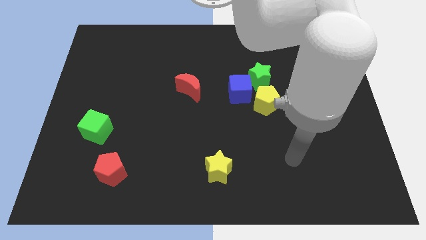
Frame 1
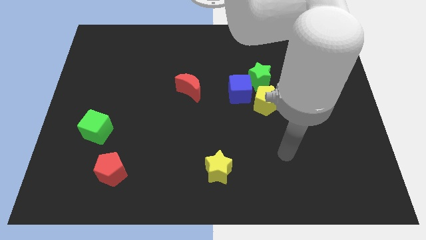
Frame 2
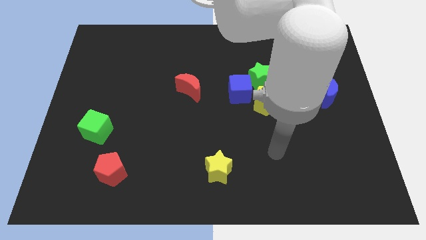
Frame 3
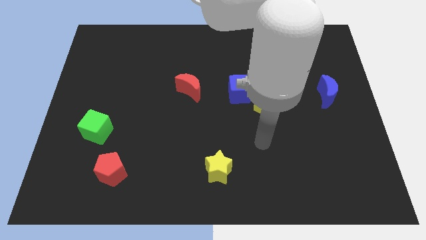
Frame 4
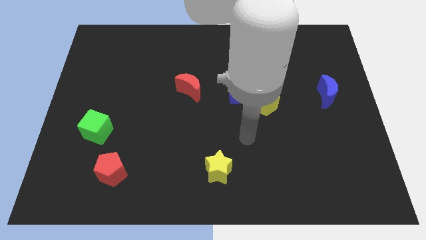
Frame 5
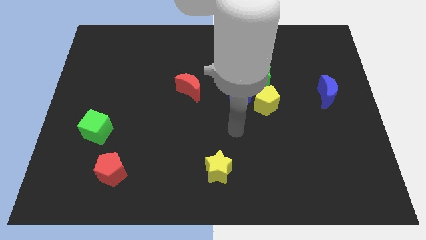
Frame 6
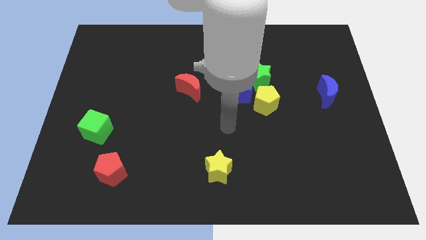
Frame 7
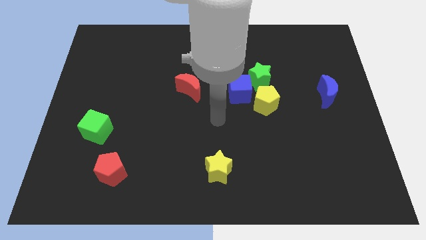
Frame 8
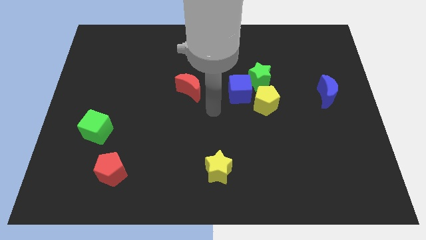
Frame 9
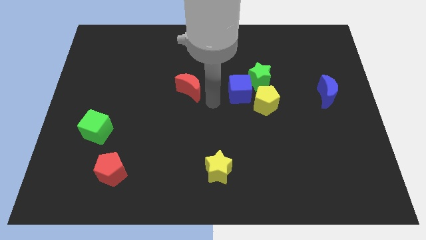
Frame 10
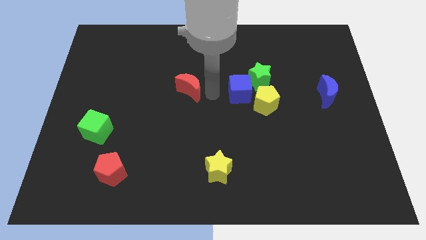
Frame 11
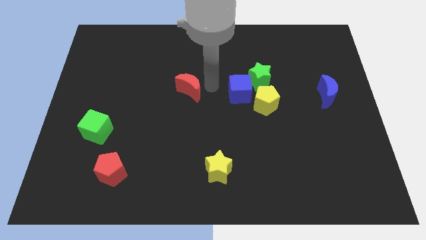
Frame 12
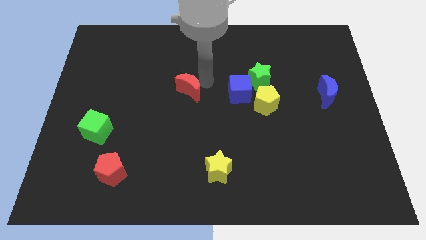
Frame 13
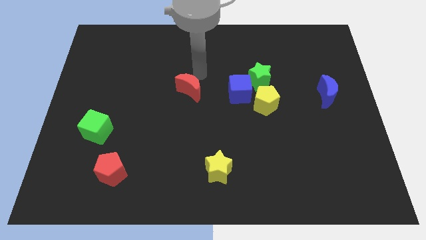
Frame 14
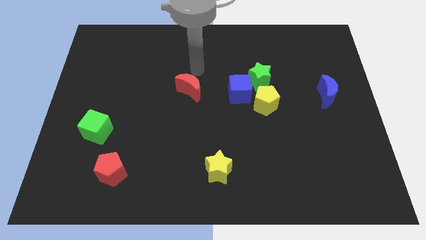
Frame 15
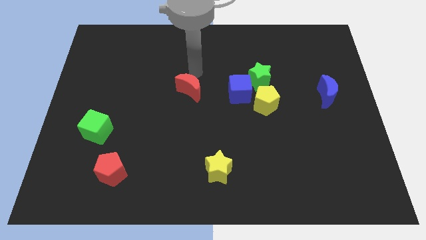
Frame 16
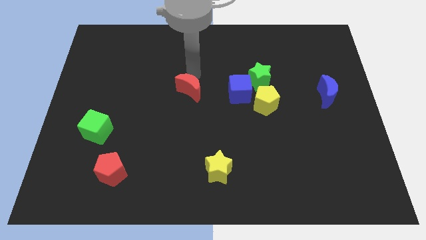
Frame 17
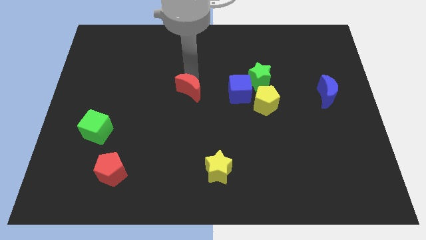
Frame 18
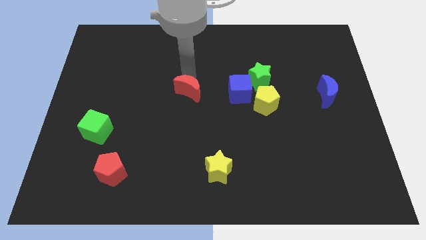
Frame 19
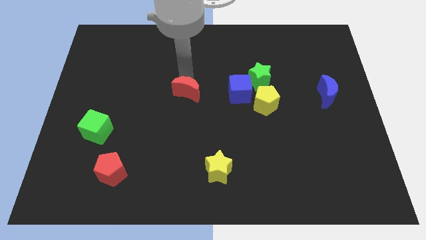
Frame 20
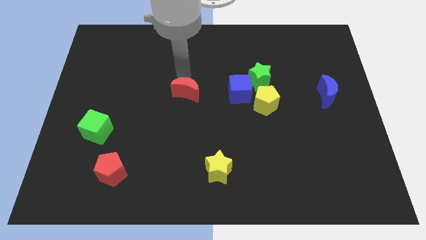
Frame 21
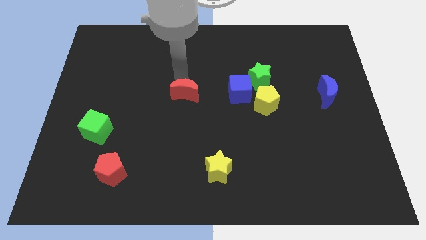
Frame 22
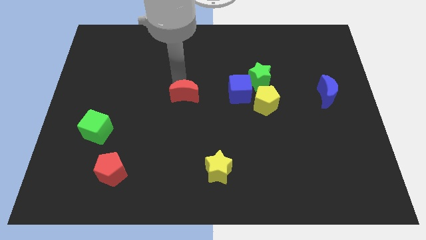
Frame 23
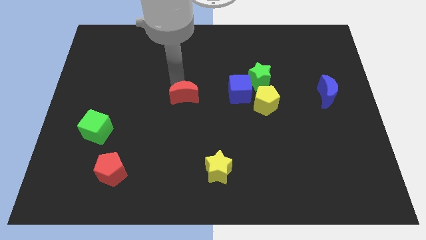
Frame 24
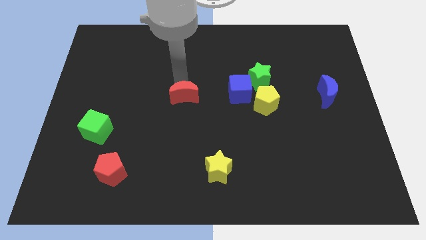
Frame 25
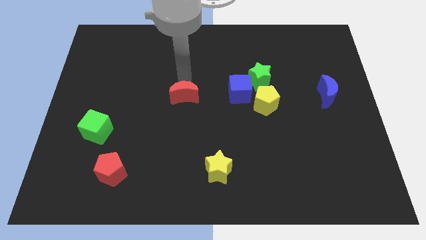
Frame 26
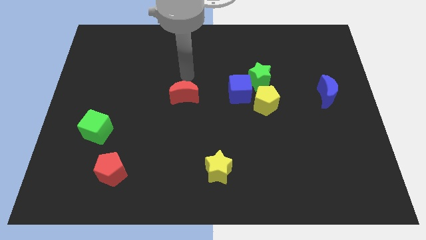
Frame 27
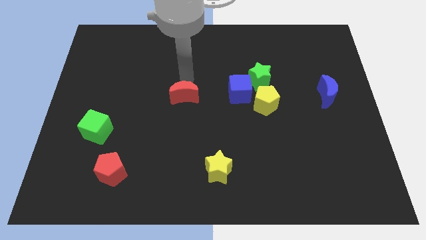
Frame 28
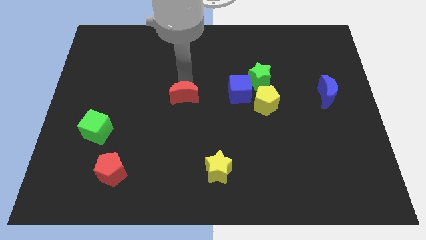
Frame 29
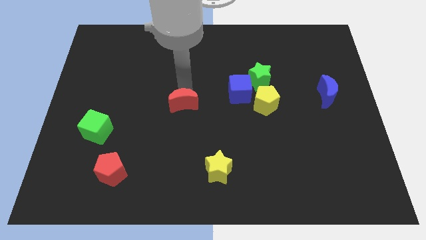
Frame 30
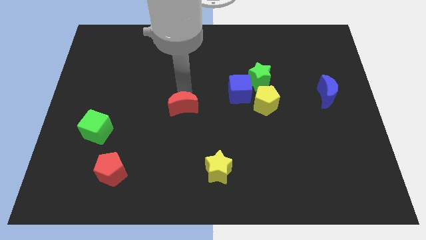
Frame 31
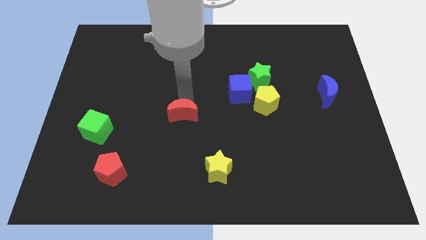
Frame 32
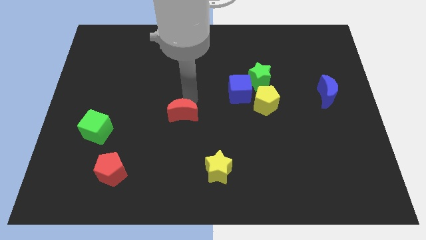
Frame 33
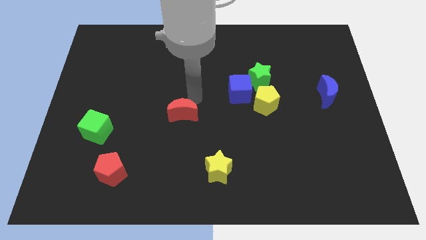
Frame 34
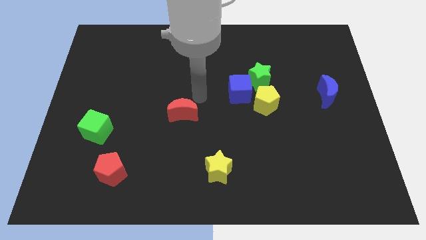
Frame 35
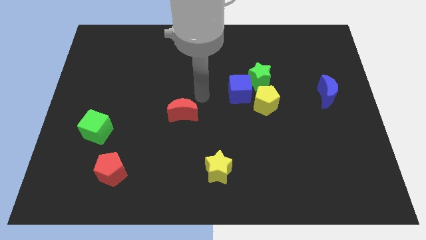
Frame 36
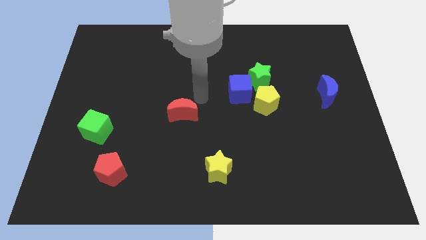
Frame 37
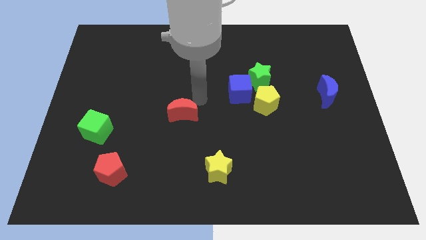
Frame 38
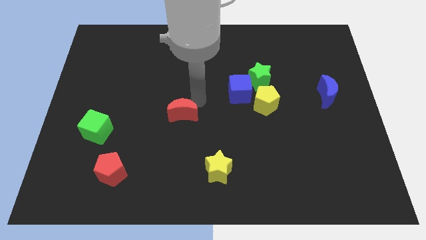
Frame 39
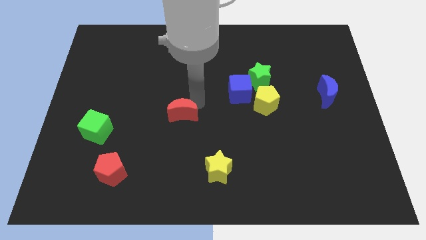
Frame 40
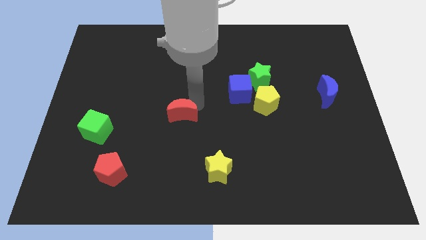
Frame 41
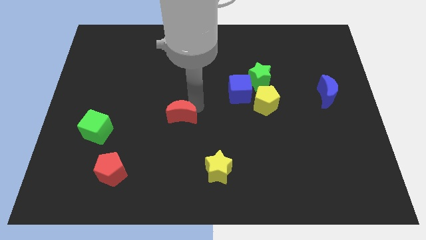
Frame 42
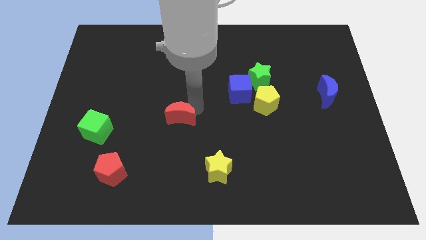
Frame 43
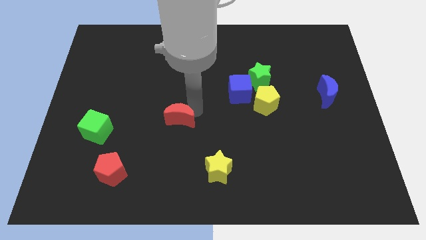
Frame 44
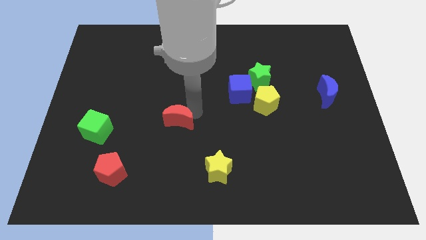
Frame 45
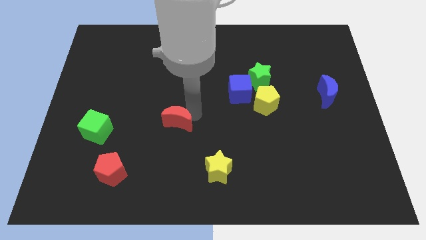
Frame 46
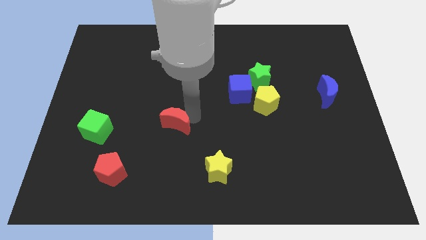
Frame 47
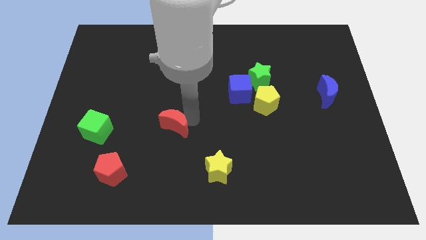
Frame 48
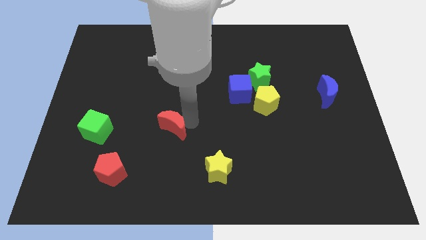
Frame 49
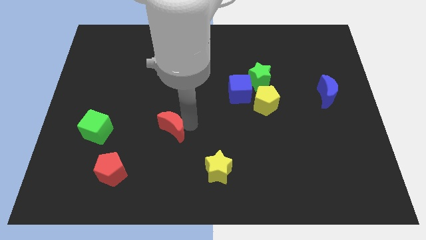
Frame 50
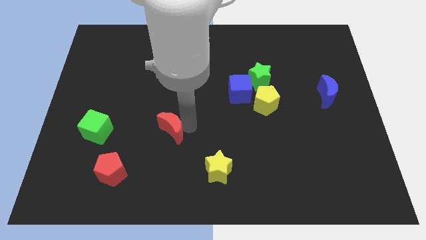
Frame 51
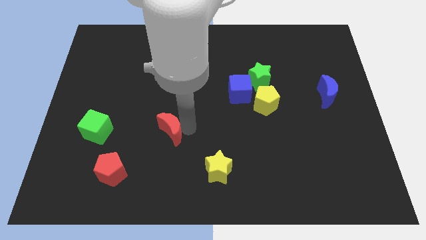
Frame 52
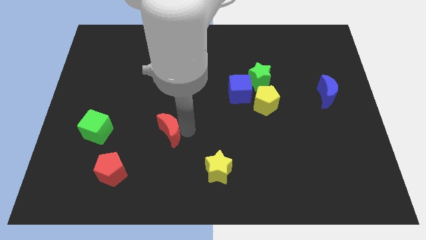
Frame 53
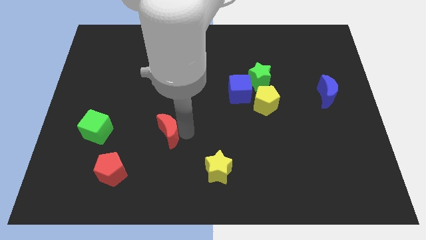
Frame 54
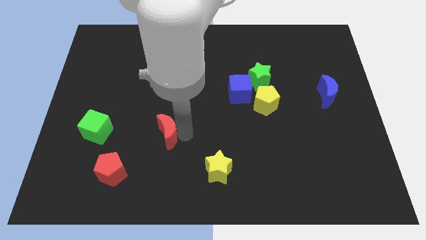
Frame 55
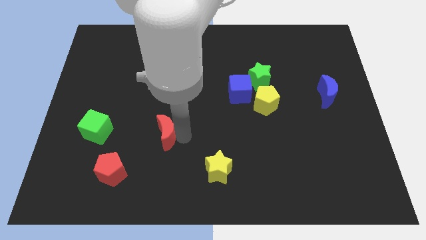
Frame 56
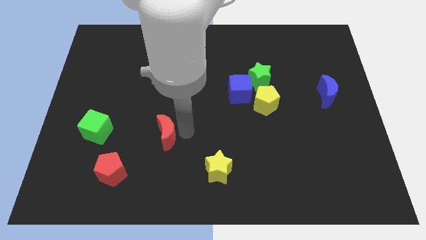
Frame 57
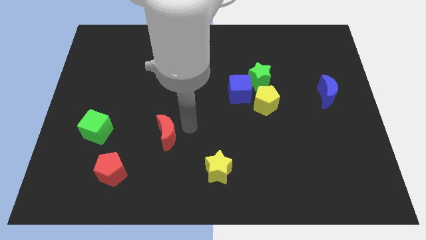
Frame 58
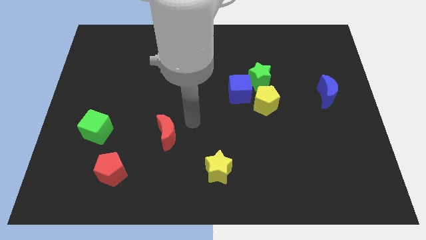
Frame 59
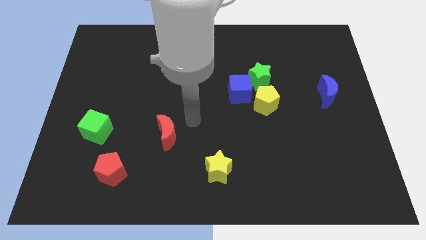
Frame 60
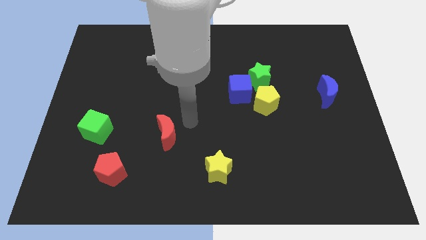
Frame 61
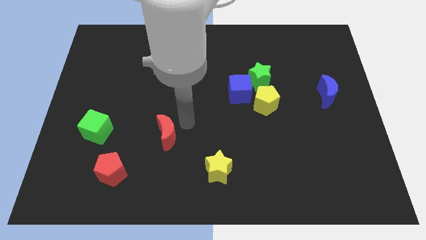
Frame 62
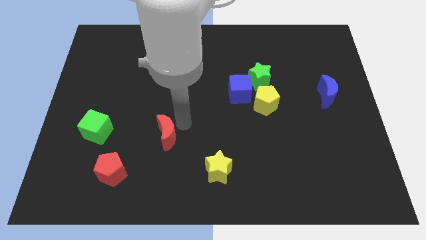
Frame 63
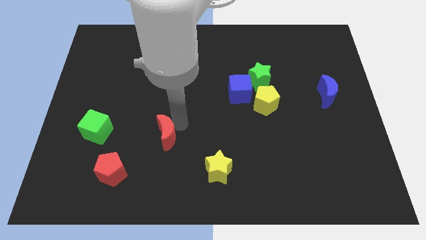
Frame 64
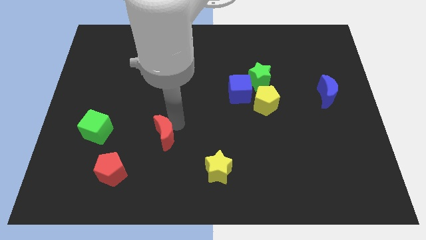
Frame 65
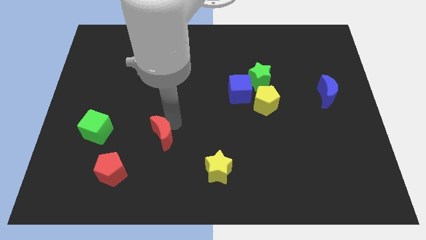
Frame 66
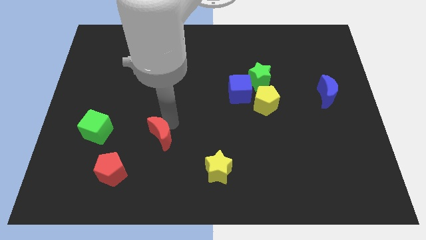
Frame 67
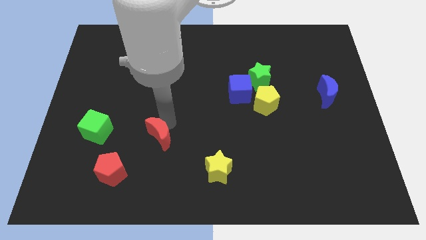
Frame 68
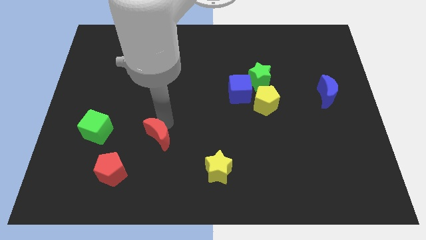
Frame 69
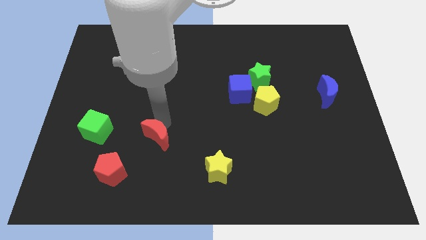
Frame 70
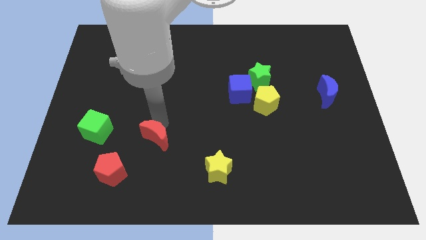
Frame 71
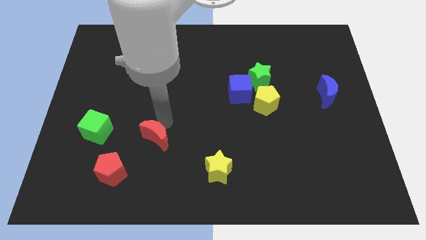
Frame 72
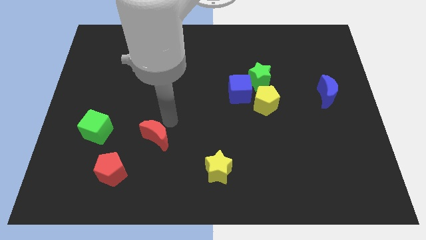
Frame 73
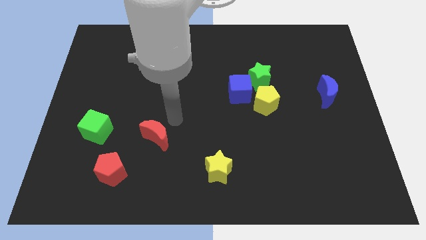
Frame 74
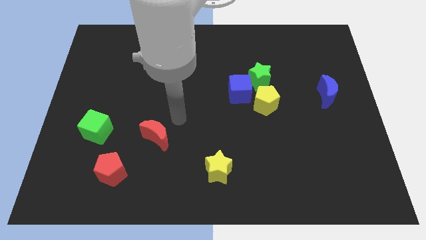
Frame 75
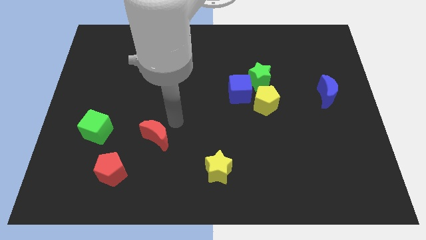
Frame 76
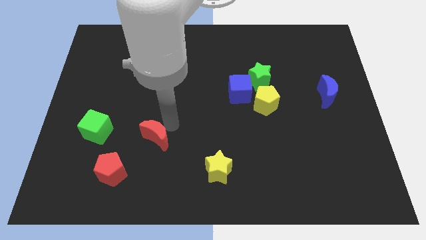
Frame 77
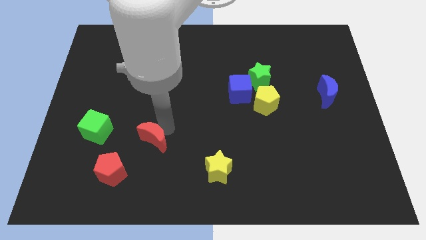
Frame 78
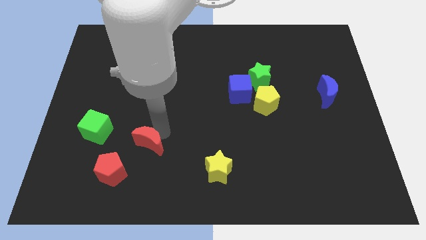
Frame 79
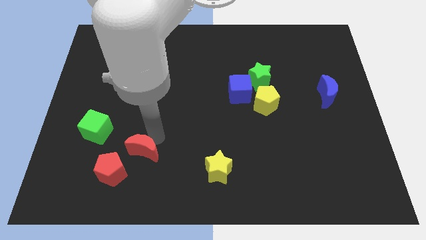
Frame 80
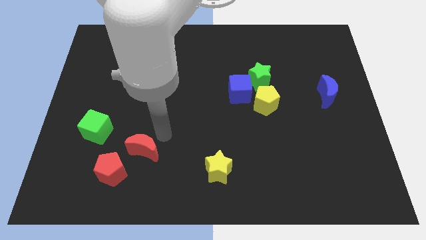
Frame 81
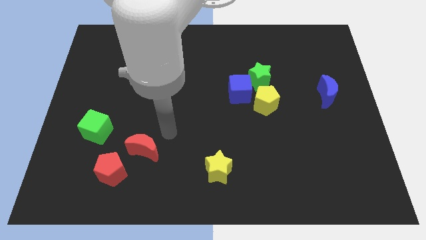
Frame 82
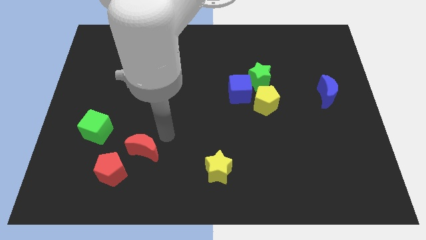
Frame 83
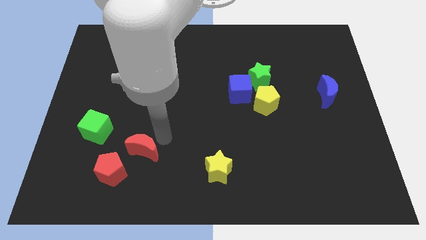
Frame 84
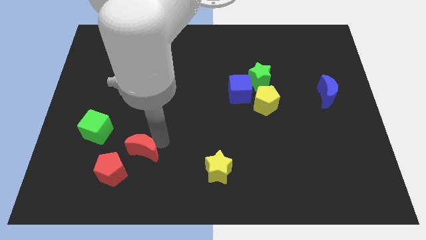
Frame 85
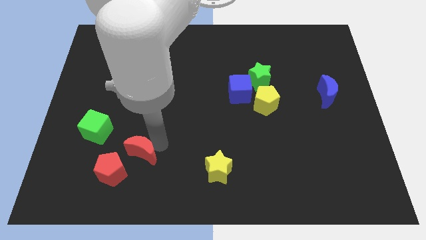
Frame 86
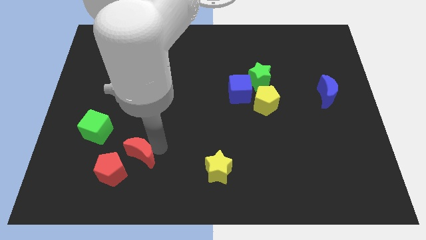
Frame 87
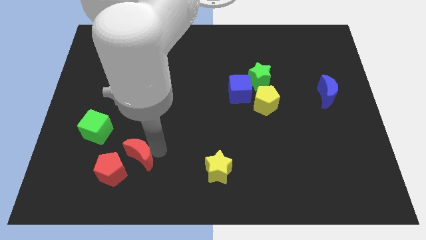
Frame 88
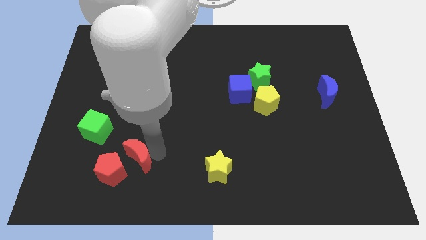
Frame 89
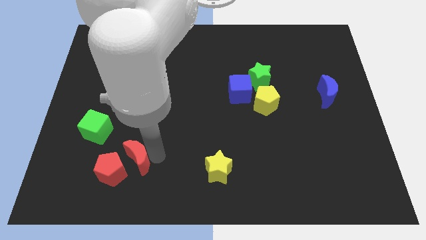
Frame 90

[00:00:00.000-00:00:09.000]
slide the red moon next to the red pentagon
